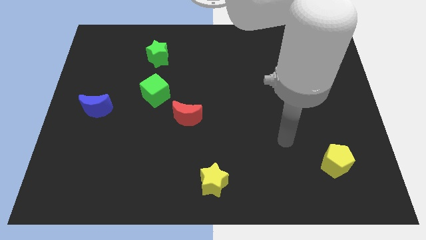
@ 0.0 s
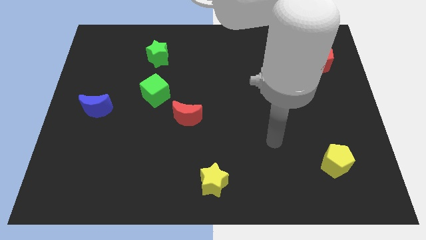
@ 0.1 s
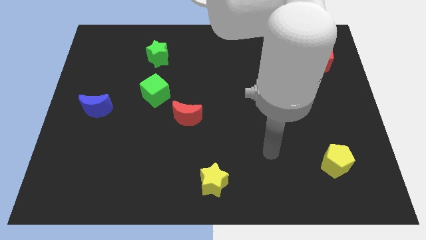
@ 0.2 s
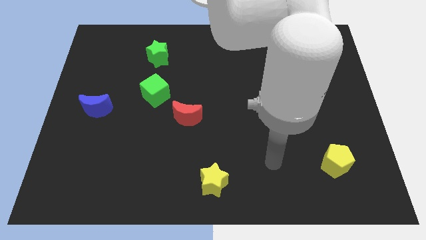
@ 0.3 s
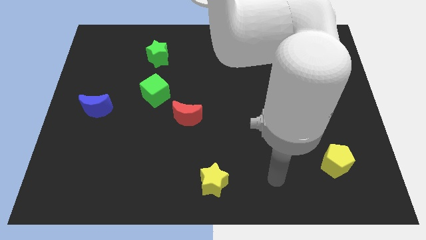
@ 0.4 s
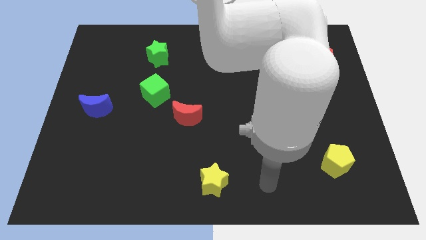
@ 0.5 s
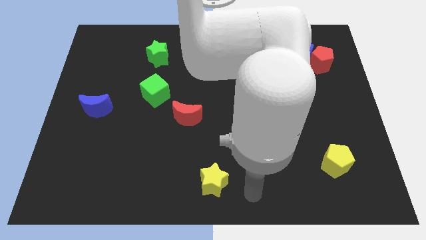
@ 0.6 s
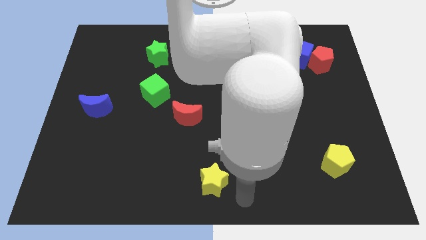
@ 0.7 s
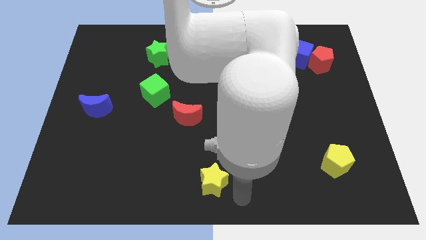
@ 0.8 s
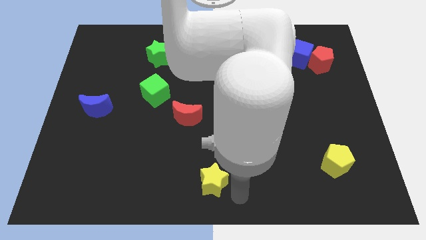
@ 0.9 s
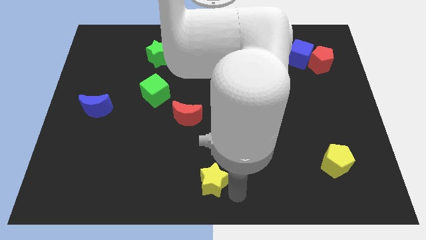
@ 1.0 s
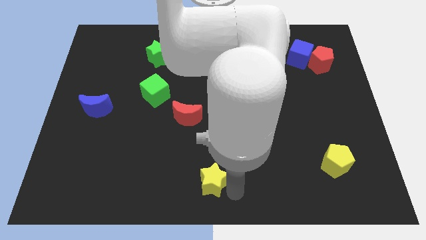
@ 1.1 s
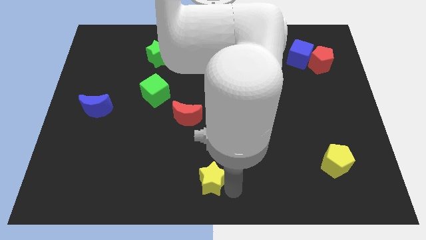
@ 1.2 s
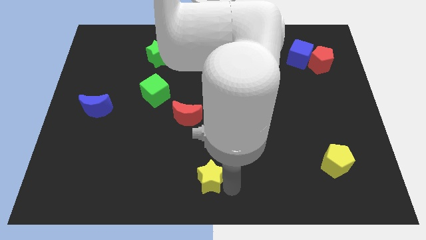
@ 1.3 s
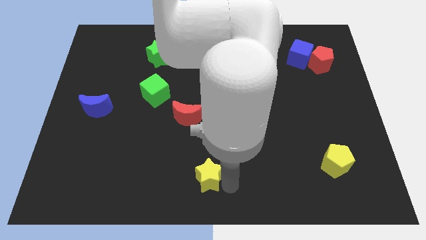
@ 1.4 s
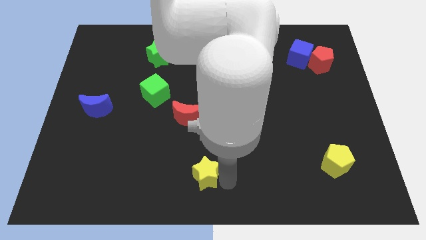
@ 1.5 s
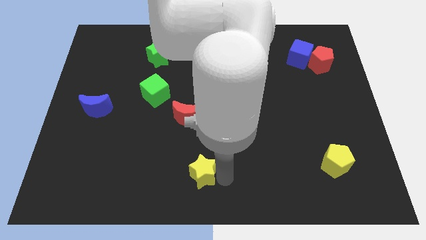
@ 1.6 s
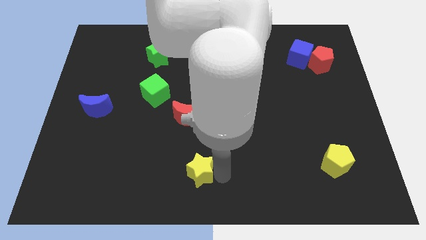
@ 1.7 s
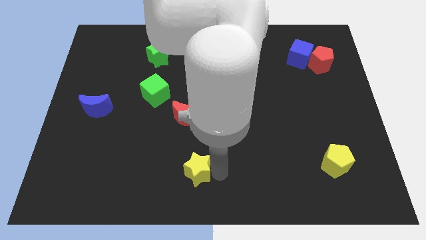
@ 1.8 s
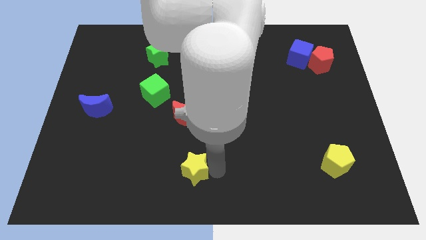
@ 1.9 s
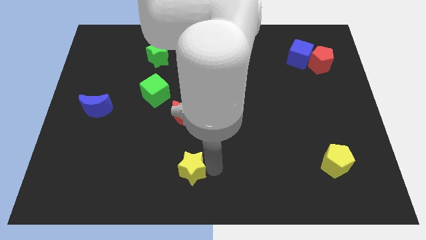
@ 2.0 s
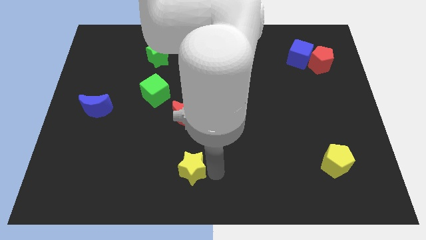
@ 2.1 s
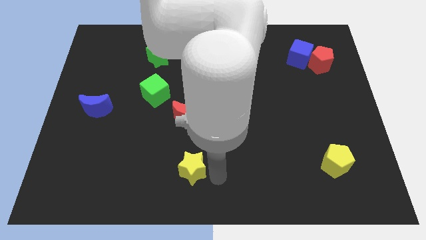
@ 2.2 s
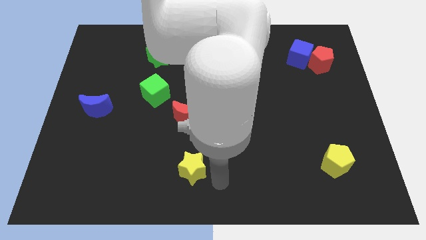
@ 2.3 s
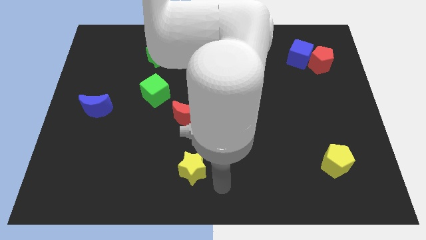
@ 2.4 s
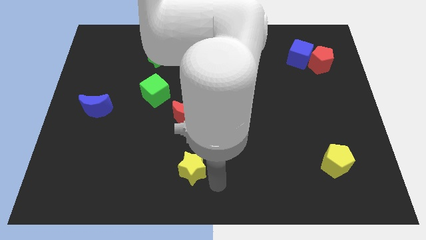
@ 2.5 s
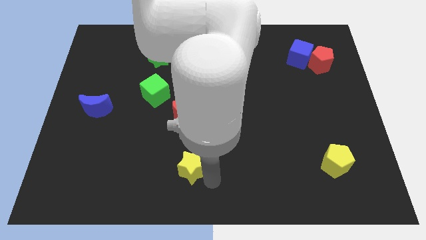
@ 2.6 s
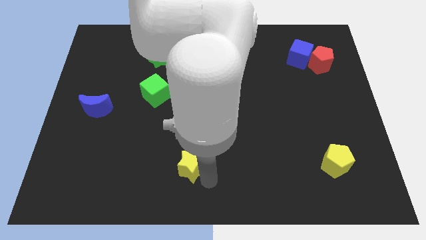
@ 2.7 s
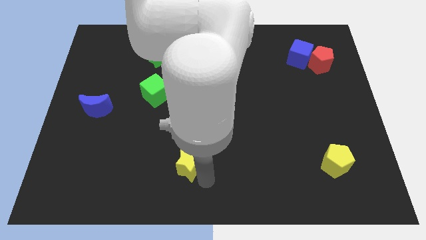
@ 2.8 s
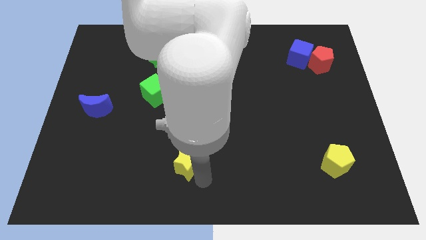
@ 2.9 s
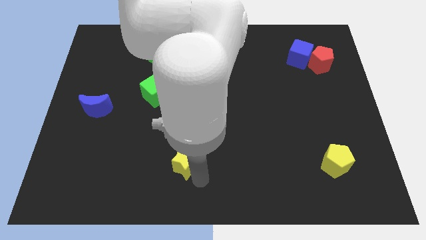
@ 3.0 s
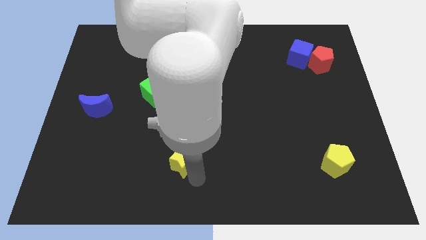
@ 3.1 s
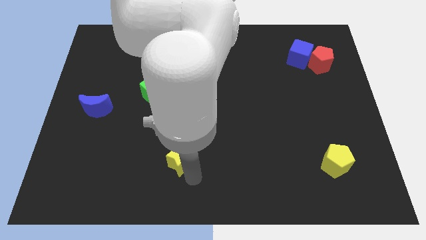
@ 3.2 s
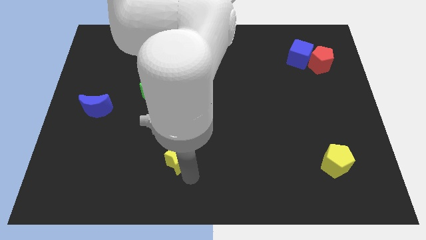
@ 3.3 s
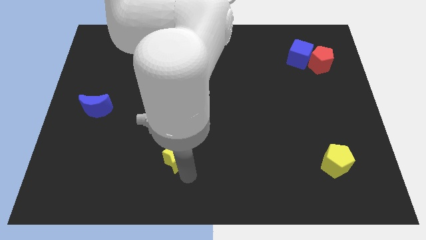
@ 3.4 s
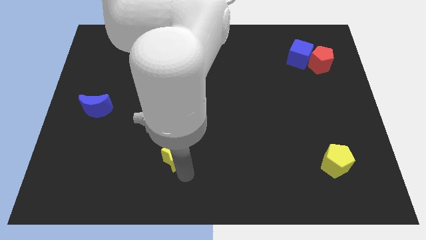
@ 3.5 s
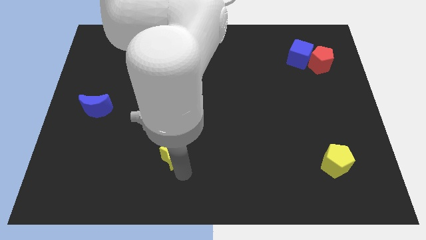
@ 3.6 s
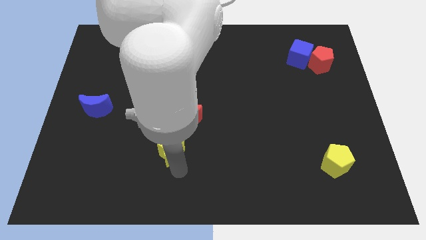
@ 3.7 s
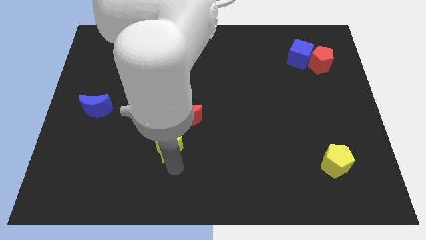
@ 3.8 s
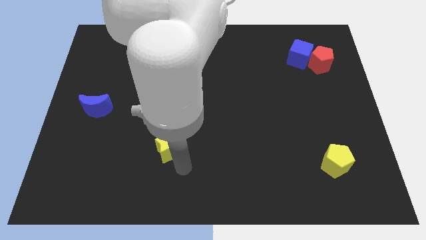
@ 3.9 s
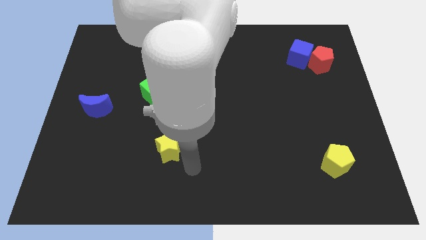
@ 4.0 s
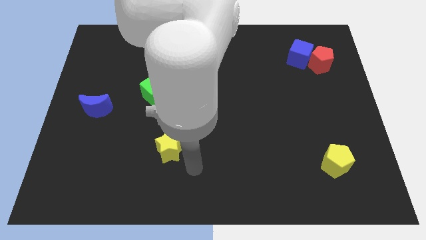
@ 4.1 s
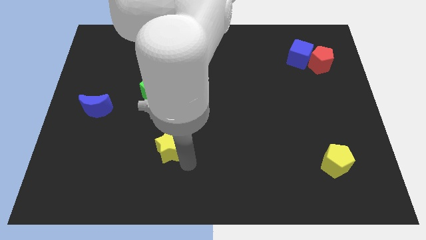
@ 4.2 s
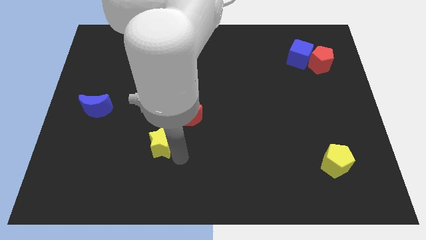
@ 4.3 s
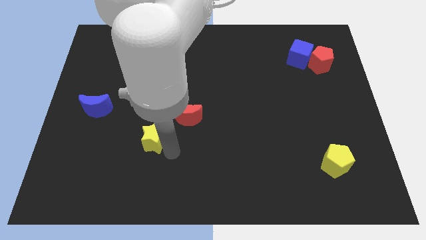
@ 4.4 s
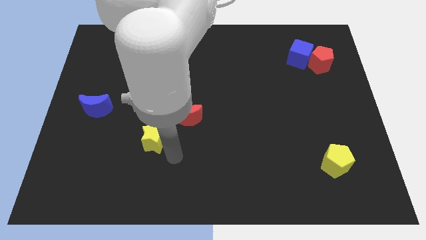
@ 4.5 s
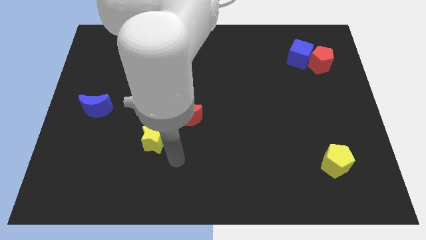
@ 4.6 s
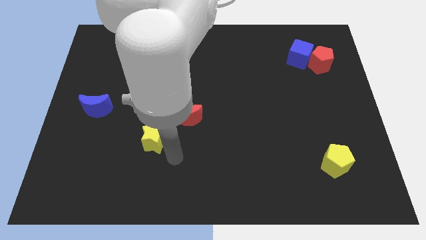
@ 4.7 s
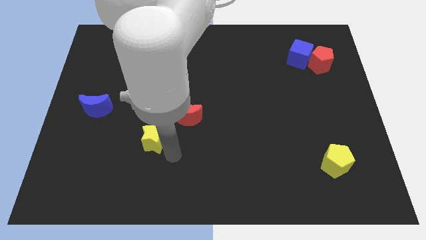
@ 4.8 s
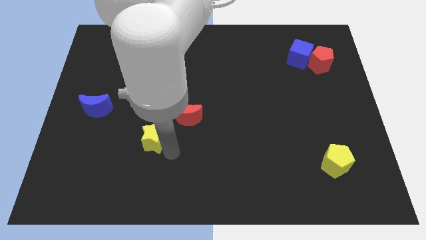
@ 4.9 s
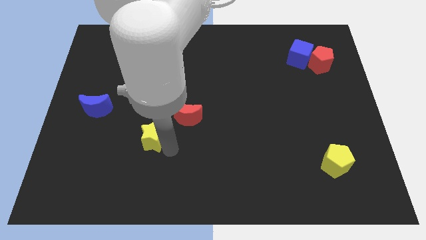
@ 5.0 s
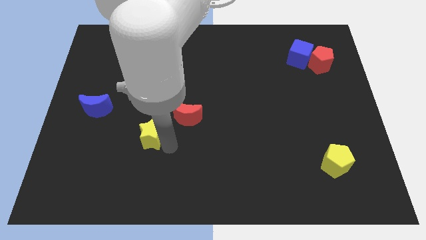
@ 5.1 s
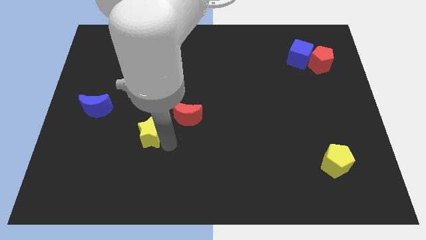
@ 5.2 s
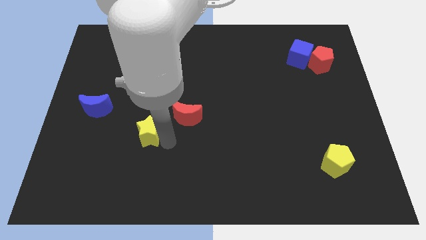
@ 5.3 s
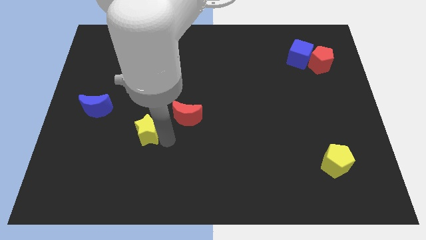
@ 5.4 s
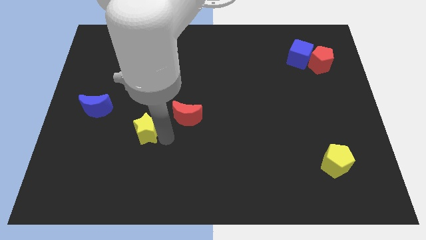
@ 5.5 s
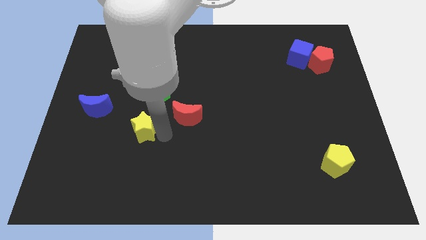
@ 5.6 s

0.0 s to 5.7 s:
slide the yellow star diagonally up and to the left

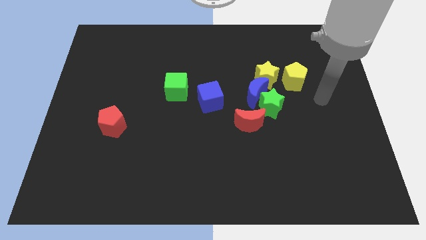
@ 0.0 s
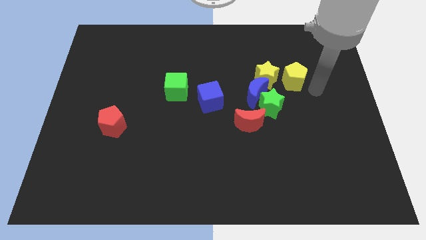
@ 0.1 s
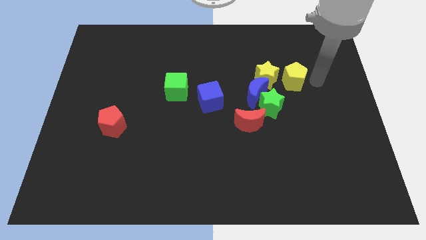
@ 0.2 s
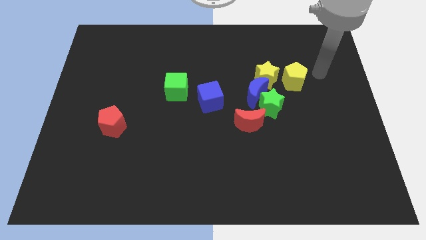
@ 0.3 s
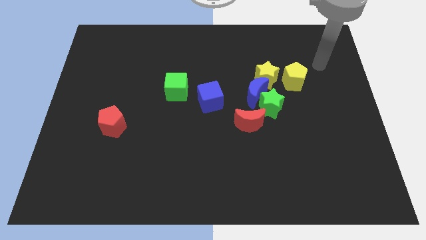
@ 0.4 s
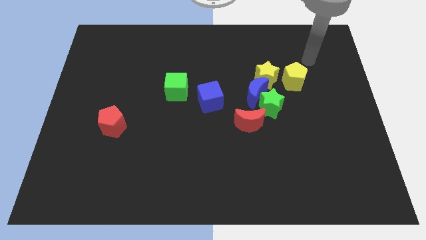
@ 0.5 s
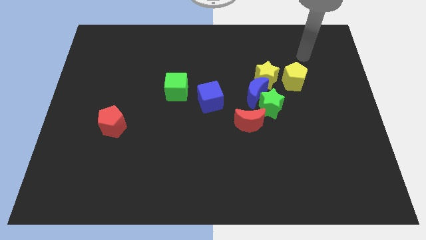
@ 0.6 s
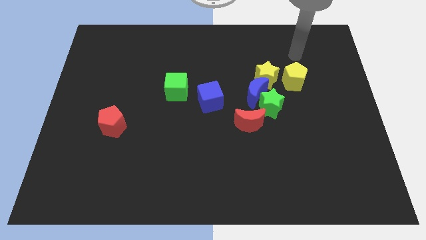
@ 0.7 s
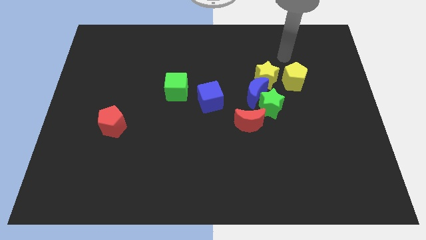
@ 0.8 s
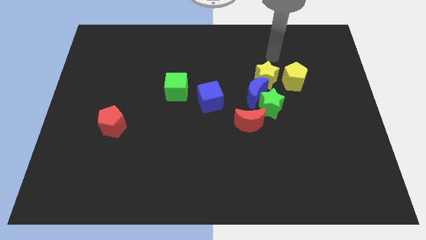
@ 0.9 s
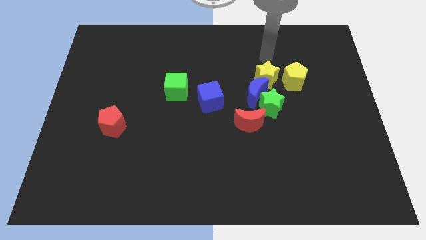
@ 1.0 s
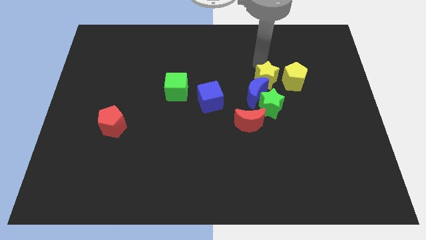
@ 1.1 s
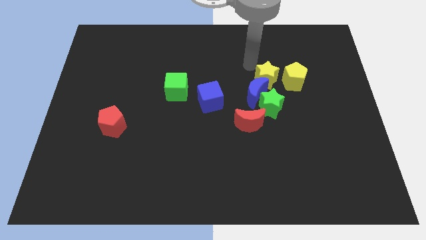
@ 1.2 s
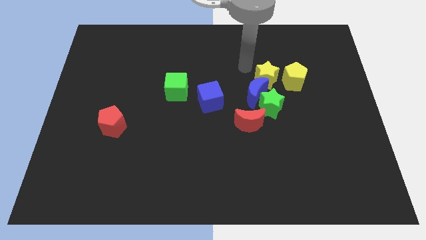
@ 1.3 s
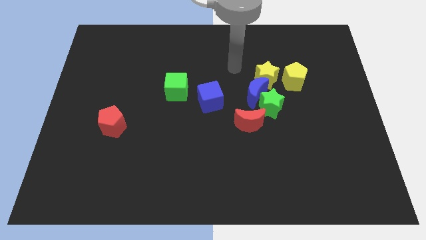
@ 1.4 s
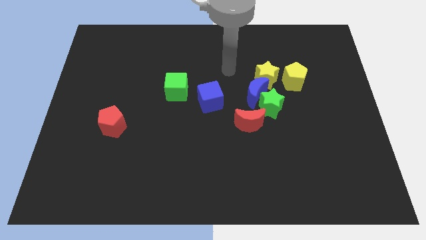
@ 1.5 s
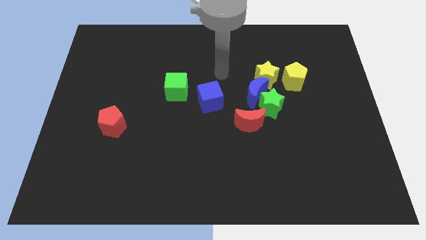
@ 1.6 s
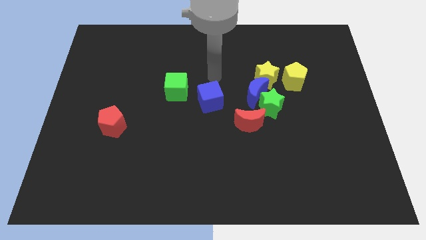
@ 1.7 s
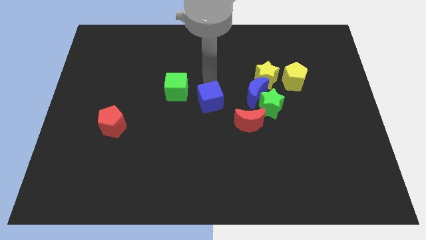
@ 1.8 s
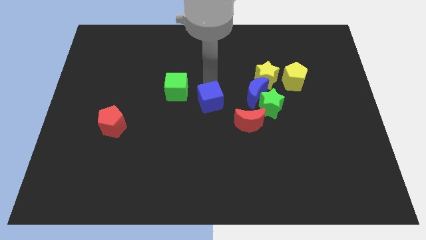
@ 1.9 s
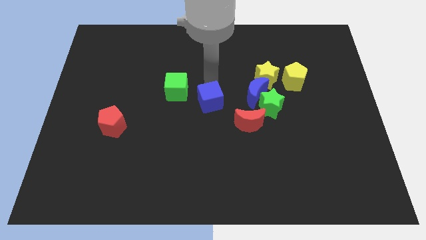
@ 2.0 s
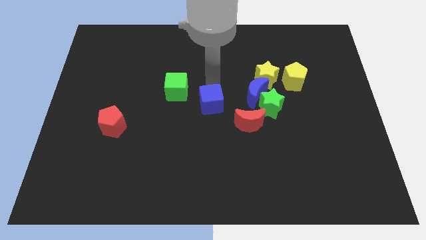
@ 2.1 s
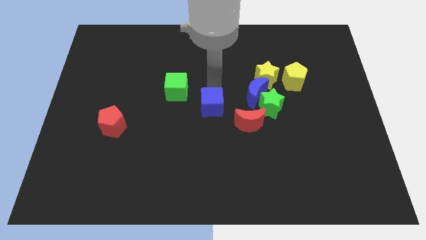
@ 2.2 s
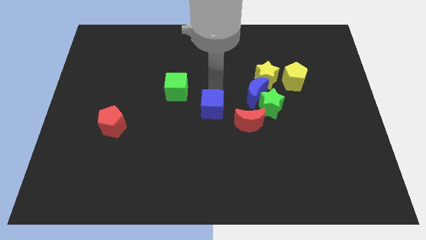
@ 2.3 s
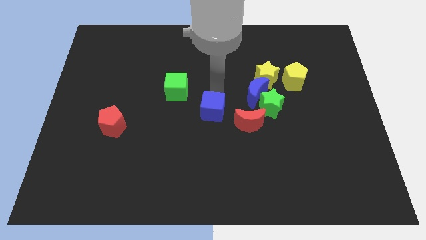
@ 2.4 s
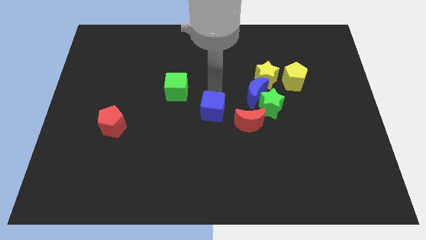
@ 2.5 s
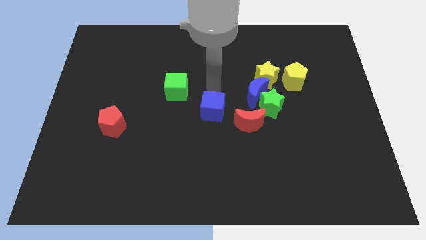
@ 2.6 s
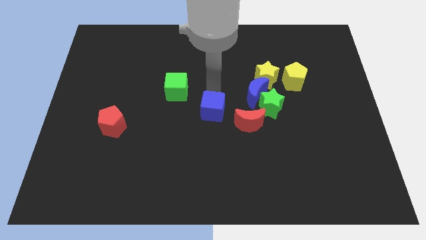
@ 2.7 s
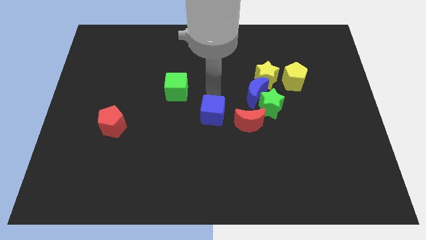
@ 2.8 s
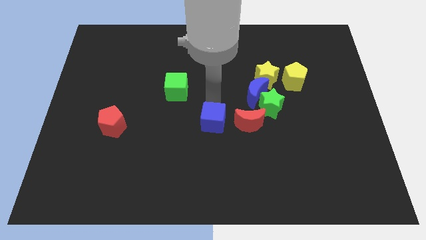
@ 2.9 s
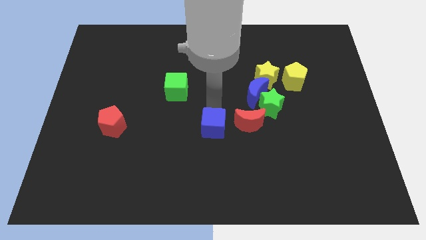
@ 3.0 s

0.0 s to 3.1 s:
slightly move the blue cube downwards
